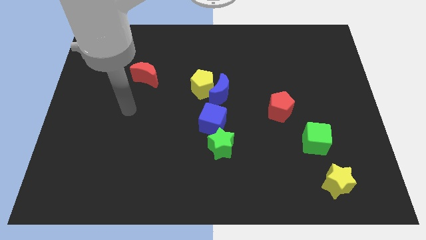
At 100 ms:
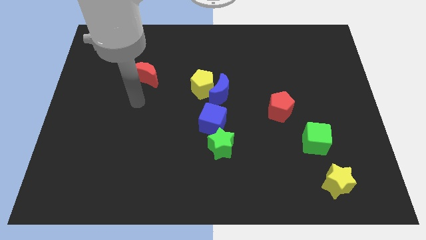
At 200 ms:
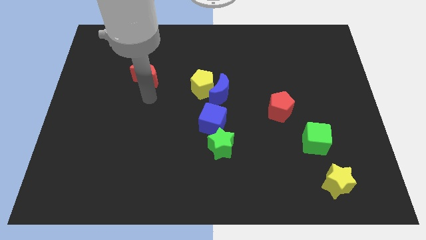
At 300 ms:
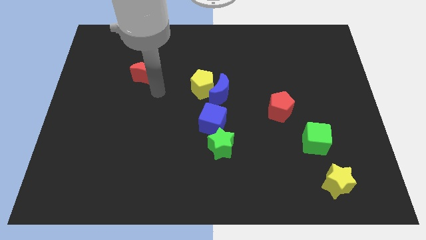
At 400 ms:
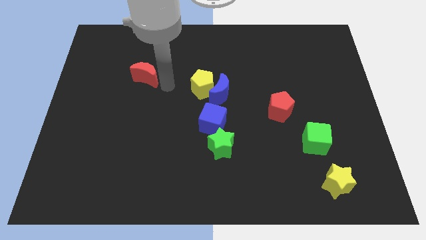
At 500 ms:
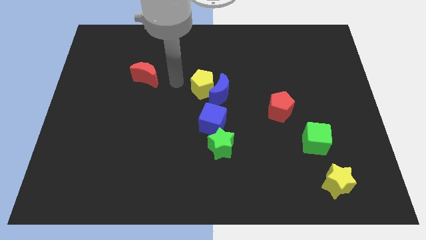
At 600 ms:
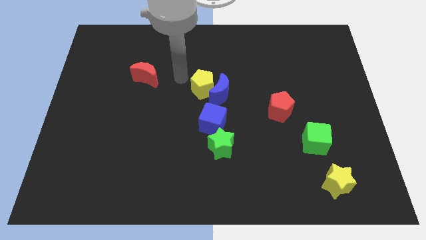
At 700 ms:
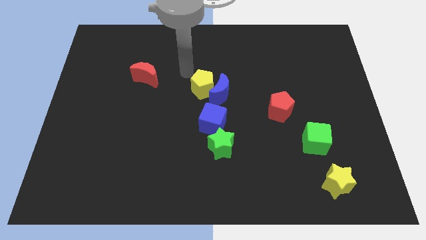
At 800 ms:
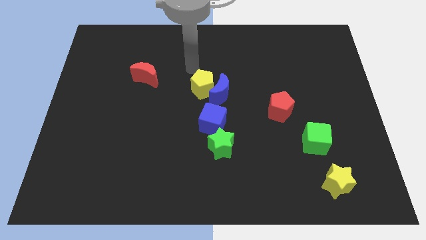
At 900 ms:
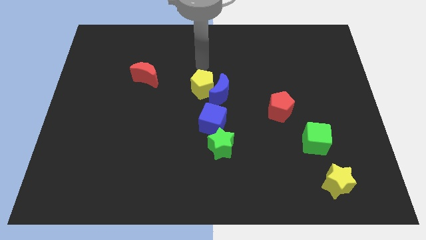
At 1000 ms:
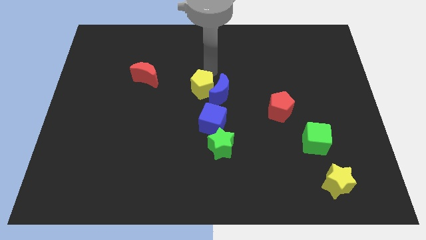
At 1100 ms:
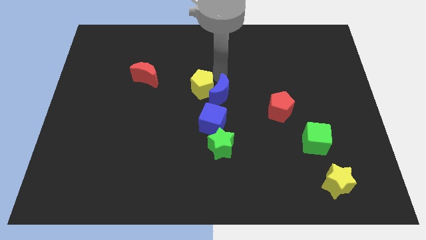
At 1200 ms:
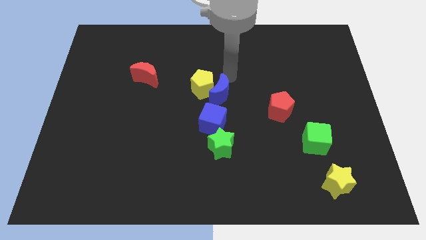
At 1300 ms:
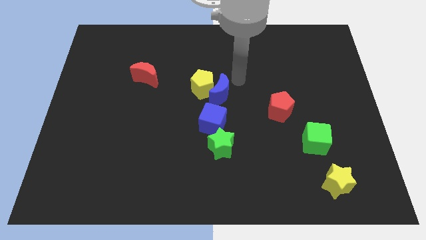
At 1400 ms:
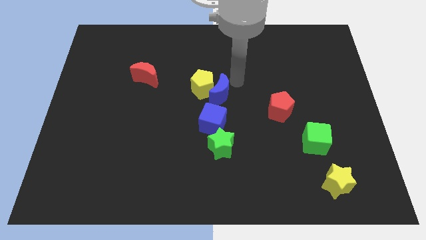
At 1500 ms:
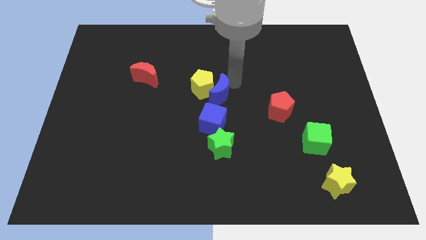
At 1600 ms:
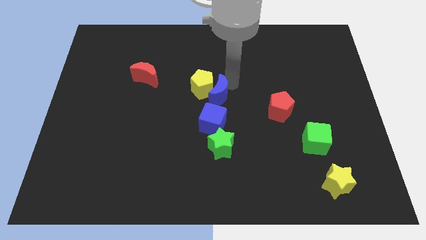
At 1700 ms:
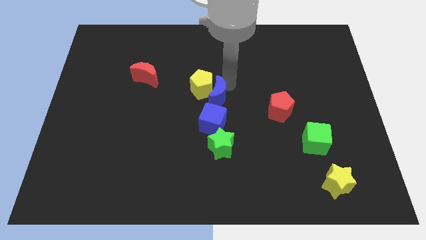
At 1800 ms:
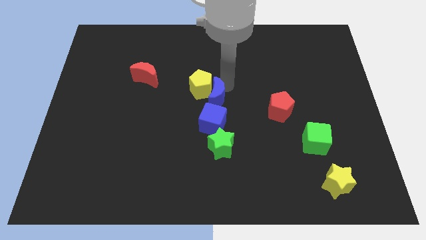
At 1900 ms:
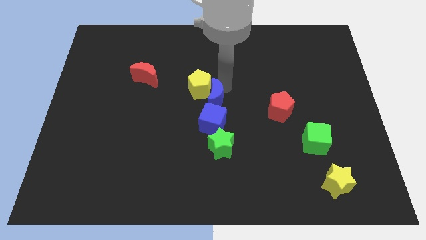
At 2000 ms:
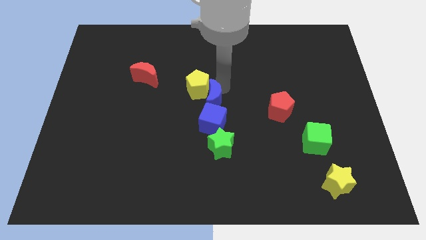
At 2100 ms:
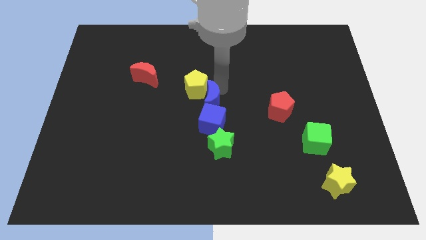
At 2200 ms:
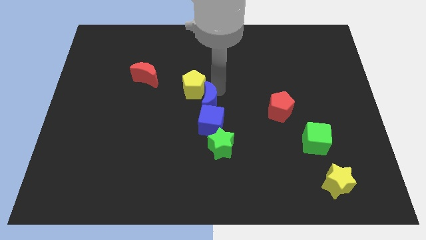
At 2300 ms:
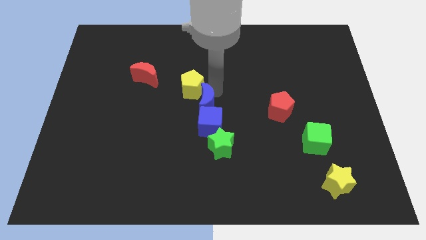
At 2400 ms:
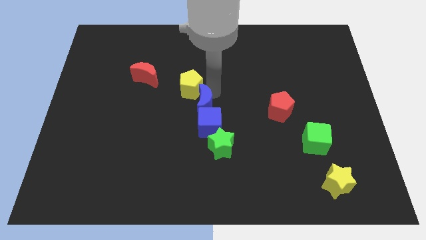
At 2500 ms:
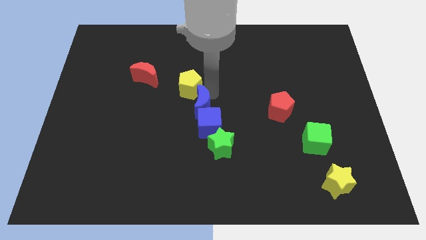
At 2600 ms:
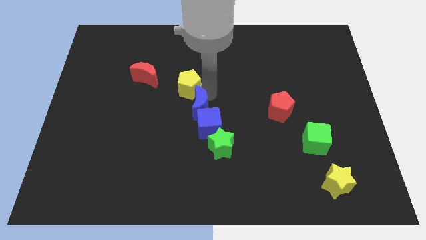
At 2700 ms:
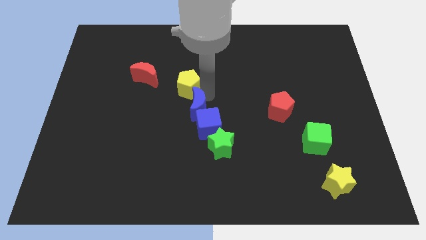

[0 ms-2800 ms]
push the blue moon diagonally downwards and to the left somewhat

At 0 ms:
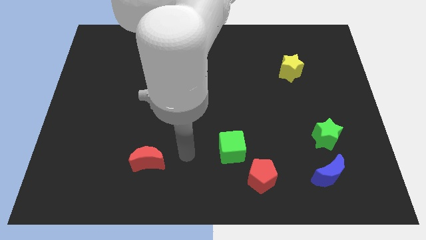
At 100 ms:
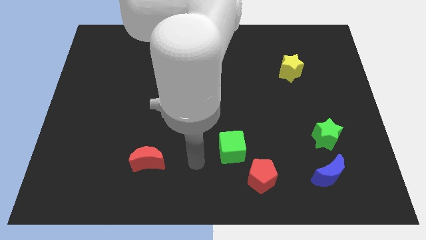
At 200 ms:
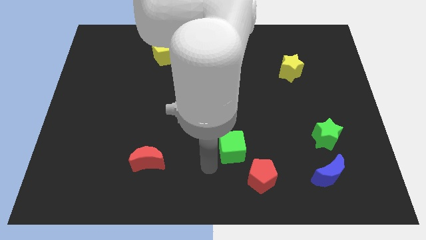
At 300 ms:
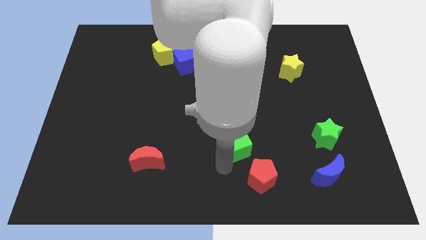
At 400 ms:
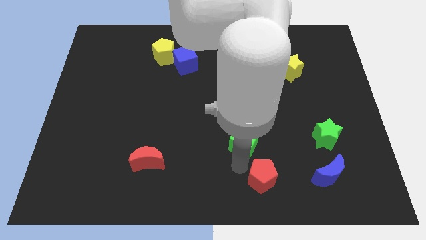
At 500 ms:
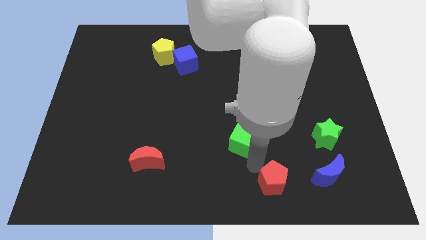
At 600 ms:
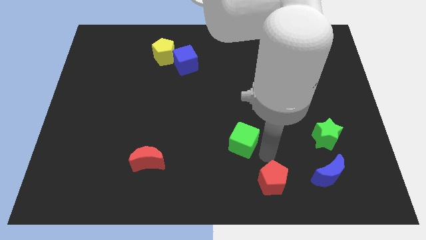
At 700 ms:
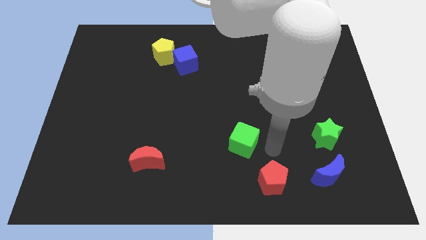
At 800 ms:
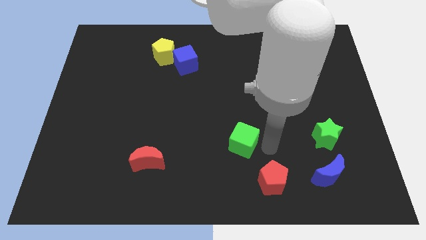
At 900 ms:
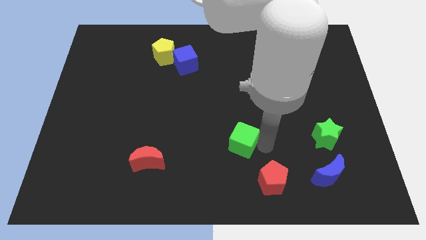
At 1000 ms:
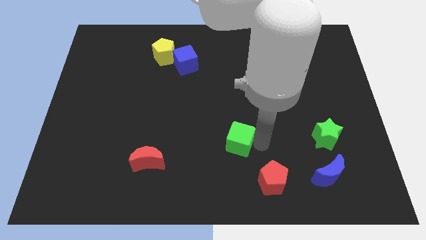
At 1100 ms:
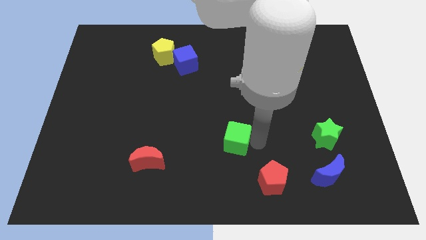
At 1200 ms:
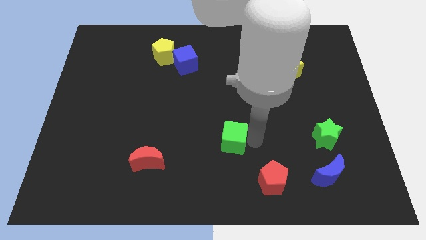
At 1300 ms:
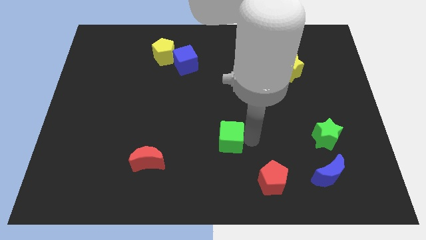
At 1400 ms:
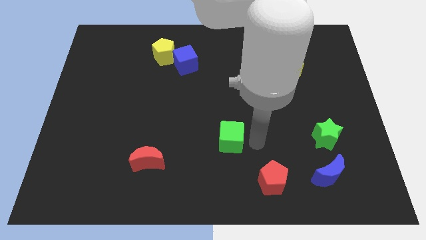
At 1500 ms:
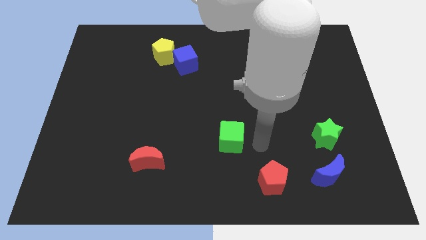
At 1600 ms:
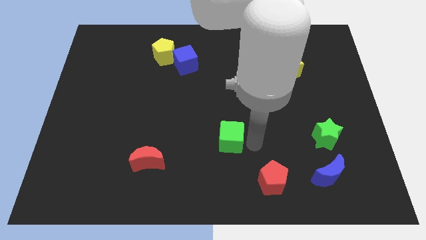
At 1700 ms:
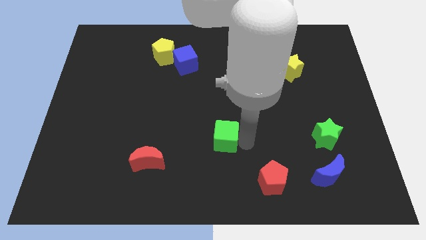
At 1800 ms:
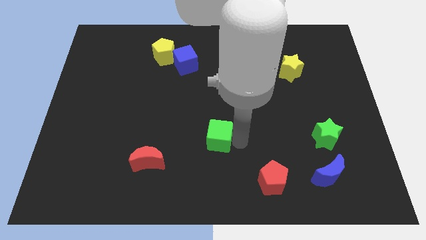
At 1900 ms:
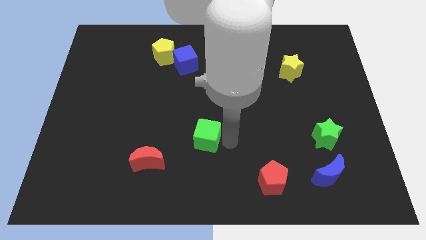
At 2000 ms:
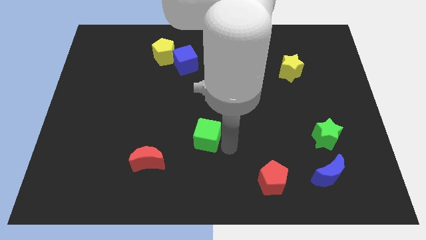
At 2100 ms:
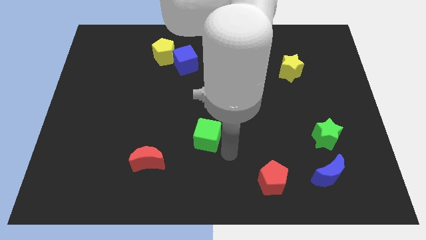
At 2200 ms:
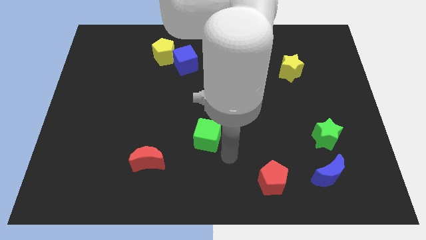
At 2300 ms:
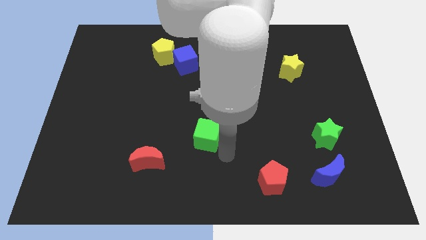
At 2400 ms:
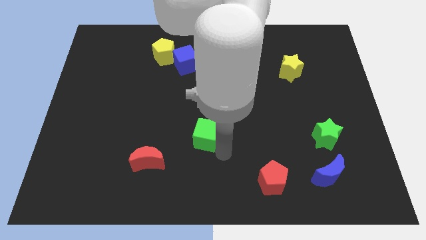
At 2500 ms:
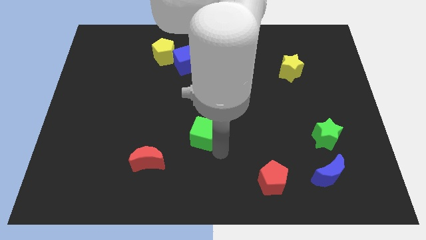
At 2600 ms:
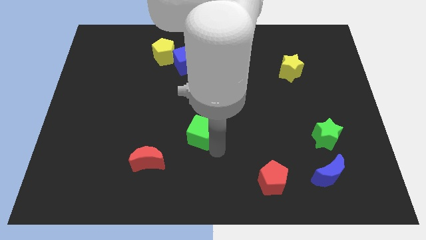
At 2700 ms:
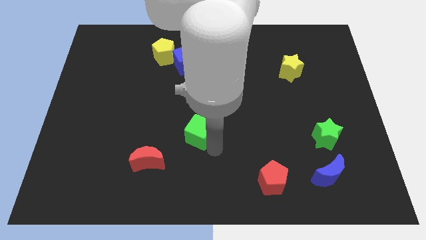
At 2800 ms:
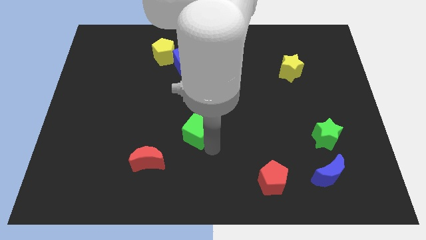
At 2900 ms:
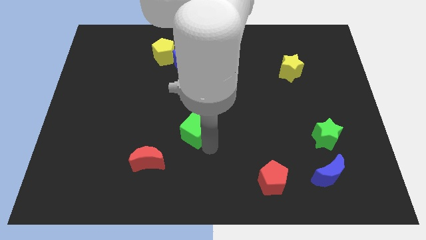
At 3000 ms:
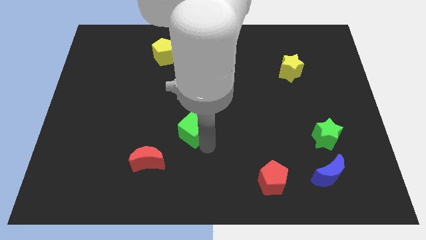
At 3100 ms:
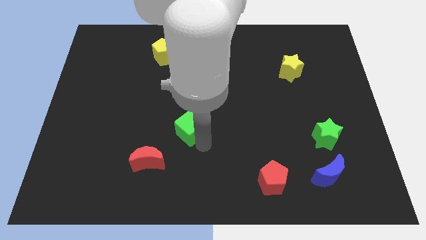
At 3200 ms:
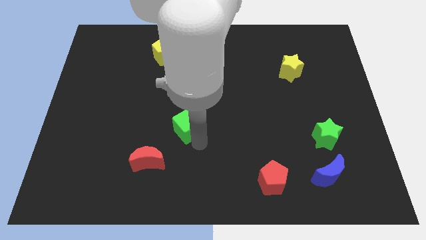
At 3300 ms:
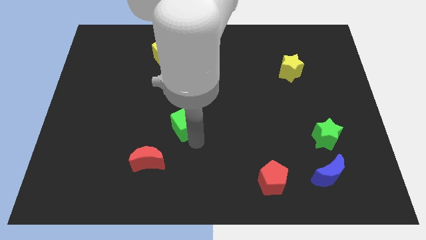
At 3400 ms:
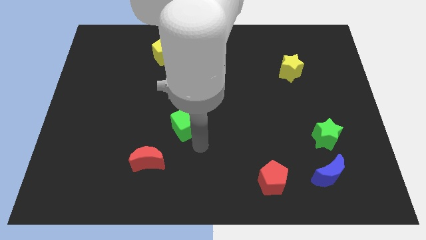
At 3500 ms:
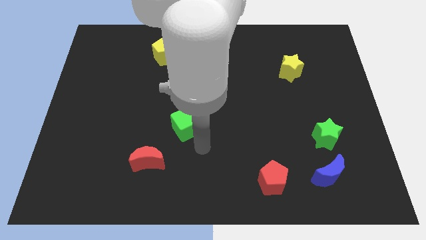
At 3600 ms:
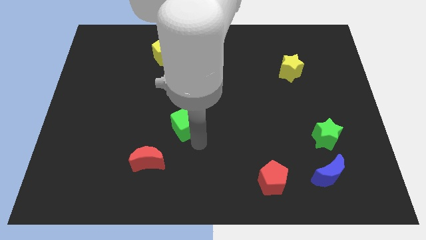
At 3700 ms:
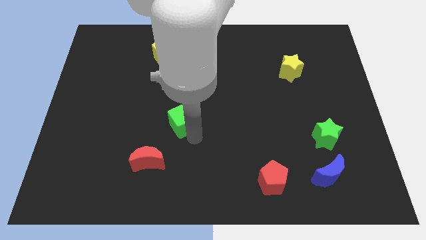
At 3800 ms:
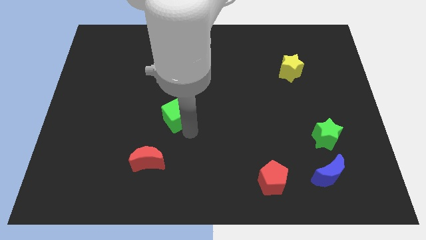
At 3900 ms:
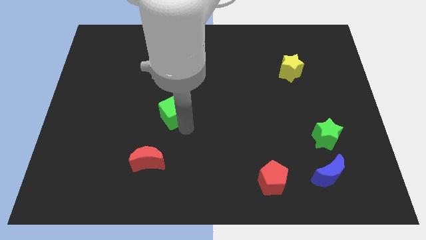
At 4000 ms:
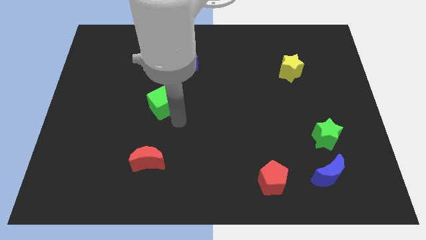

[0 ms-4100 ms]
slide the green cube upwards and left

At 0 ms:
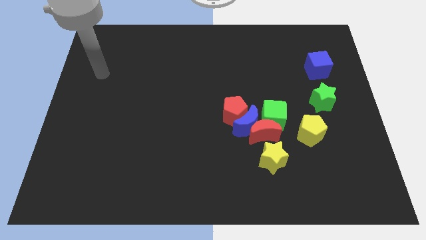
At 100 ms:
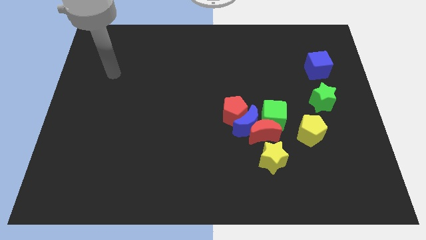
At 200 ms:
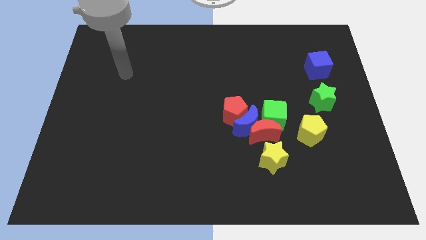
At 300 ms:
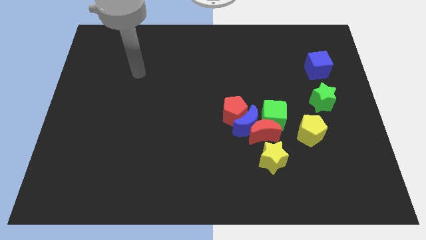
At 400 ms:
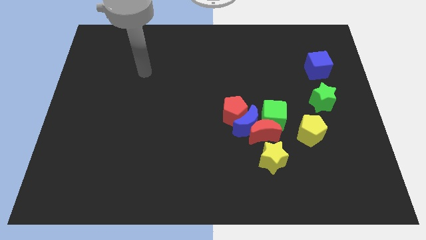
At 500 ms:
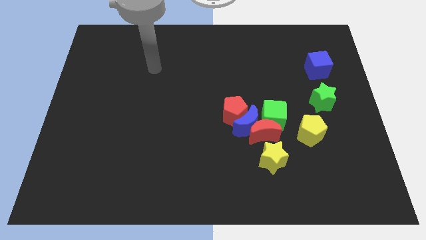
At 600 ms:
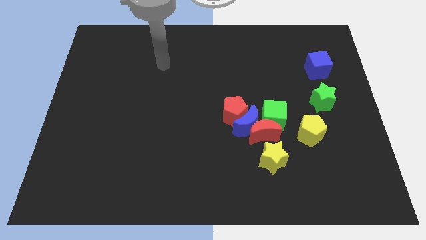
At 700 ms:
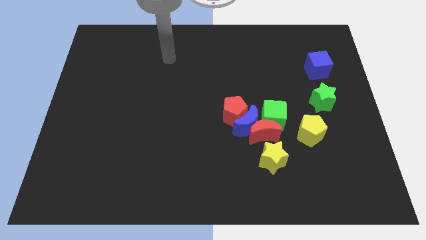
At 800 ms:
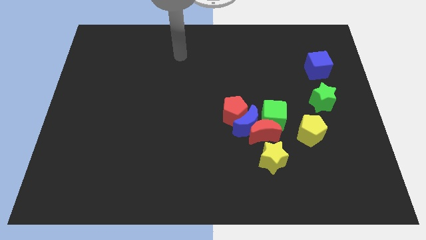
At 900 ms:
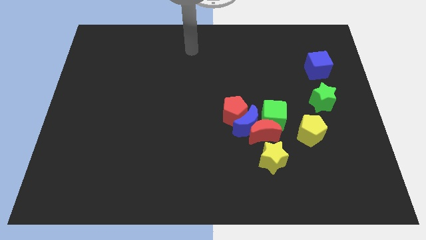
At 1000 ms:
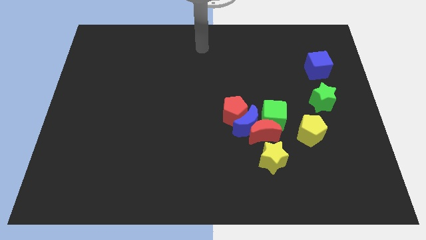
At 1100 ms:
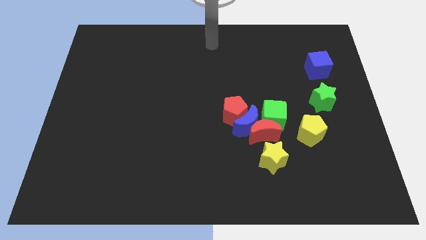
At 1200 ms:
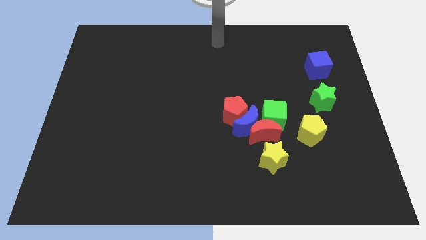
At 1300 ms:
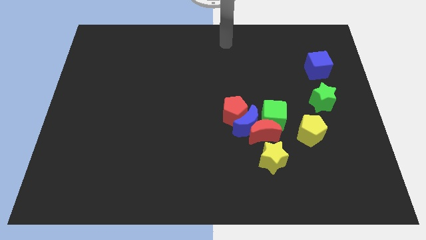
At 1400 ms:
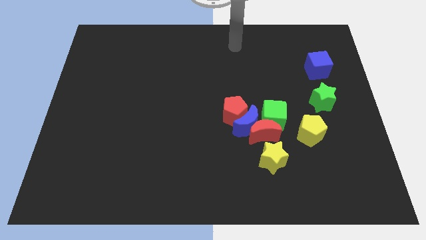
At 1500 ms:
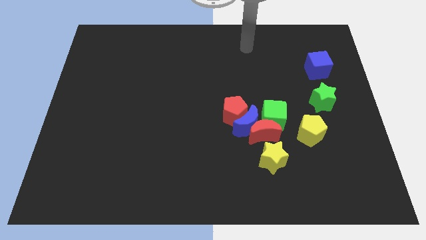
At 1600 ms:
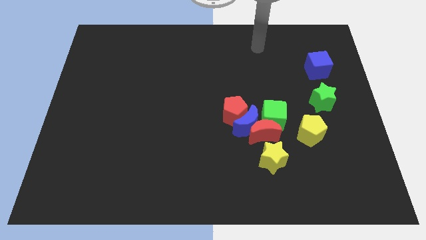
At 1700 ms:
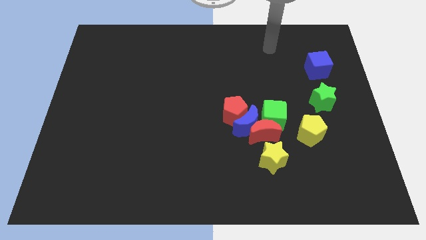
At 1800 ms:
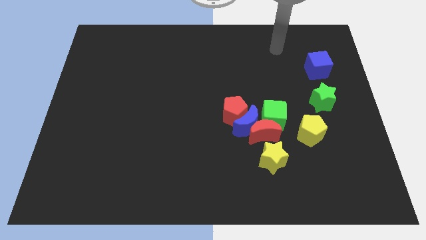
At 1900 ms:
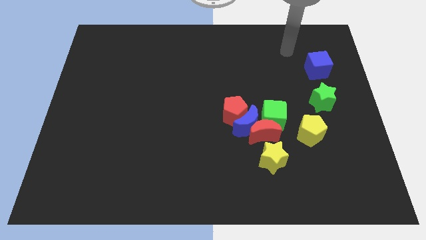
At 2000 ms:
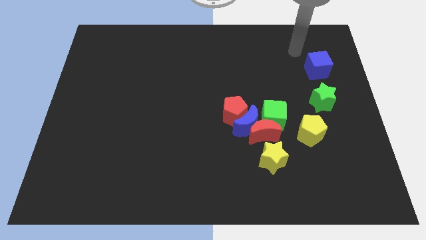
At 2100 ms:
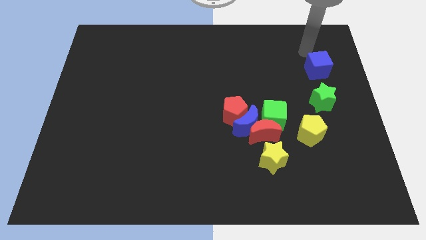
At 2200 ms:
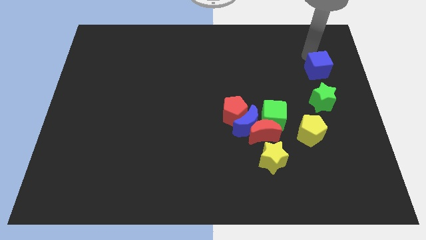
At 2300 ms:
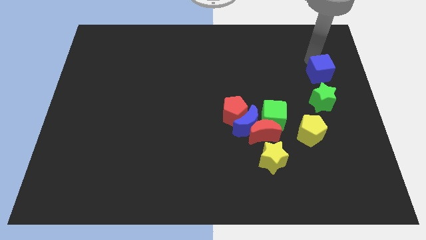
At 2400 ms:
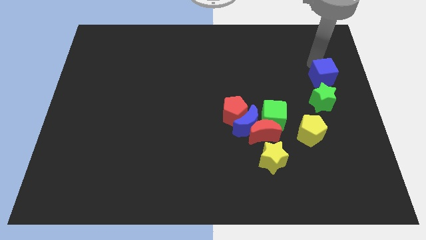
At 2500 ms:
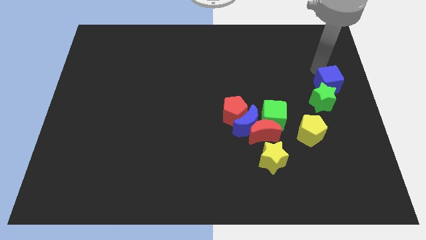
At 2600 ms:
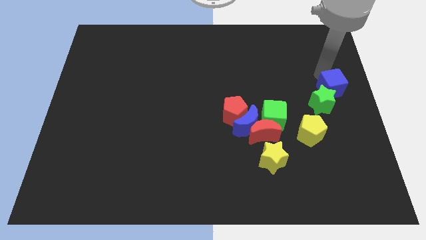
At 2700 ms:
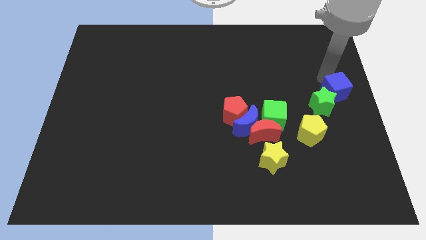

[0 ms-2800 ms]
slightly push the blue cube downwards
